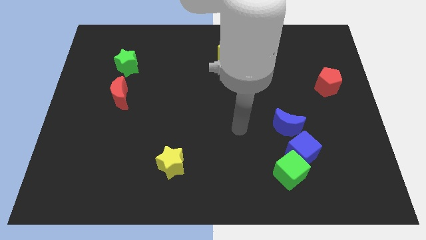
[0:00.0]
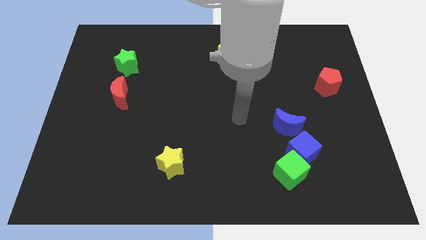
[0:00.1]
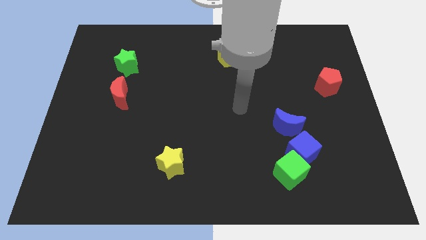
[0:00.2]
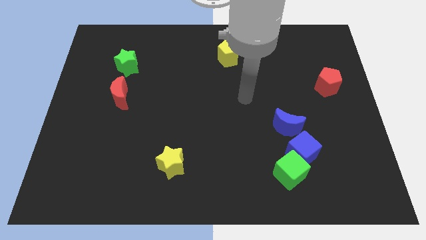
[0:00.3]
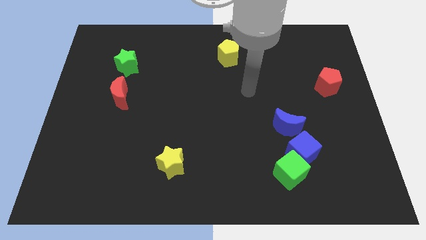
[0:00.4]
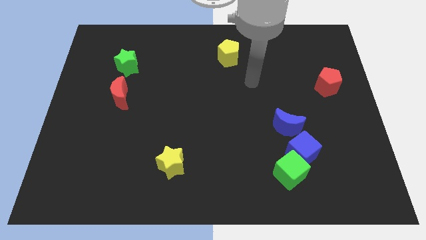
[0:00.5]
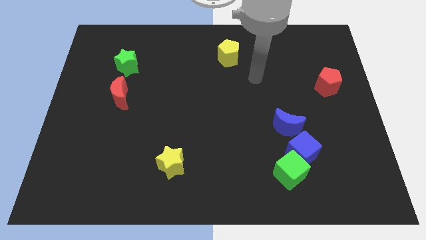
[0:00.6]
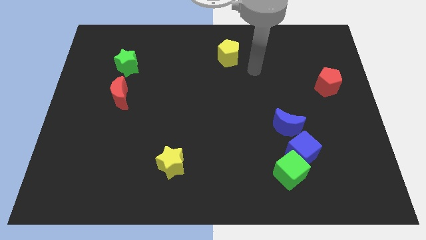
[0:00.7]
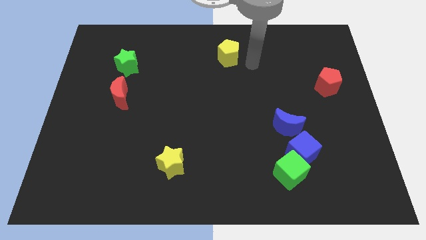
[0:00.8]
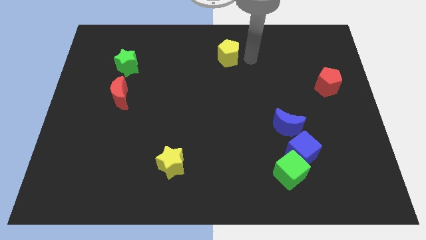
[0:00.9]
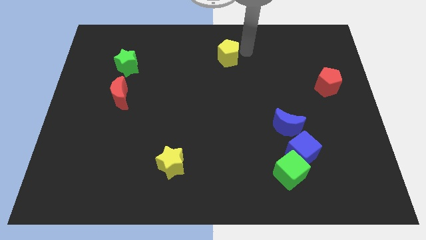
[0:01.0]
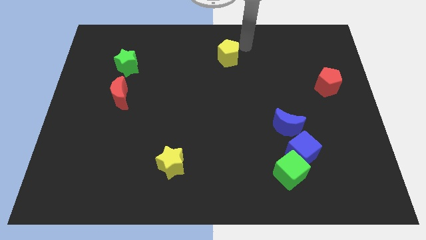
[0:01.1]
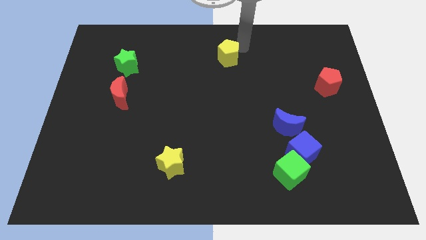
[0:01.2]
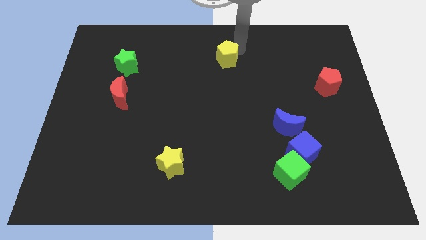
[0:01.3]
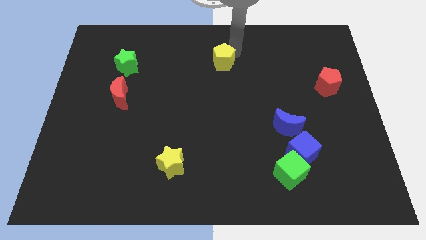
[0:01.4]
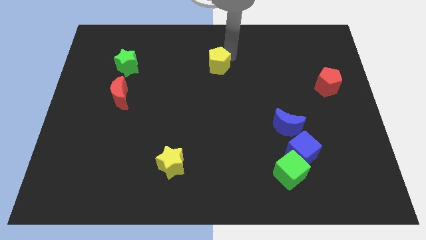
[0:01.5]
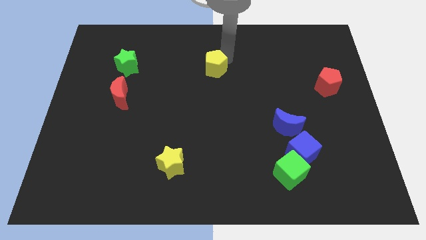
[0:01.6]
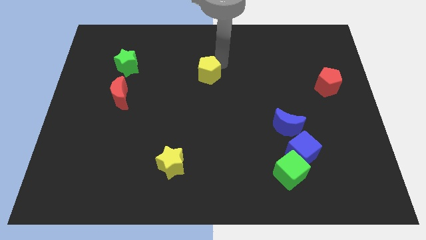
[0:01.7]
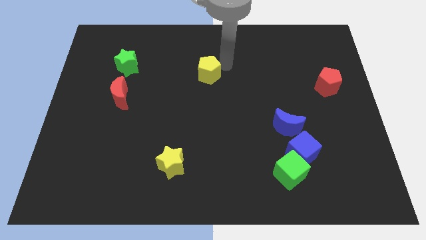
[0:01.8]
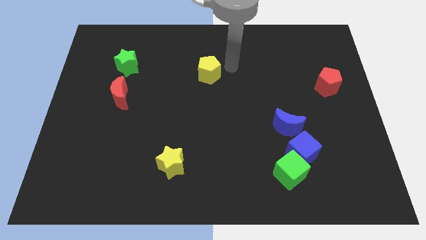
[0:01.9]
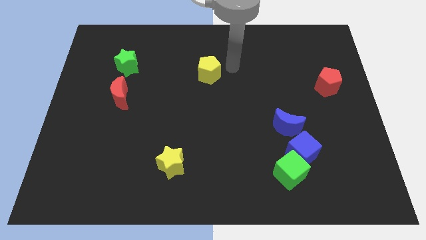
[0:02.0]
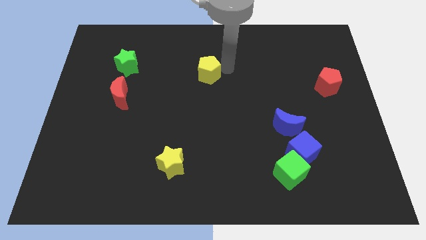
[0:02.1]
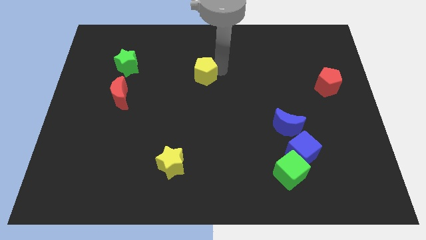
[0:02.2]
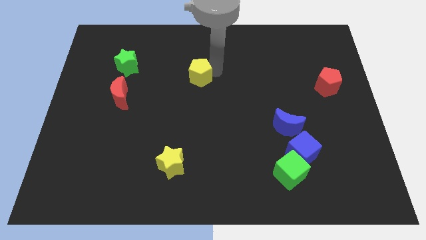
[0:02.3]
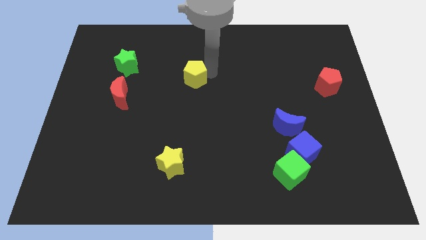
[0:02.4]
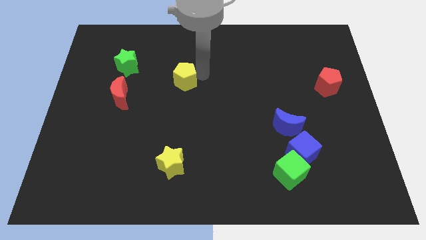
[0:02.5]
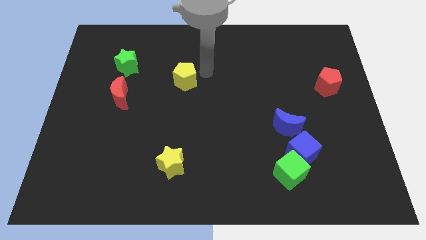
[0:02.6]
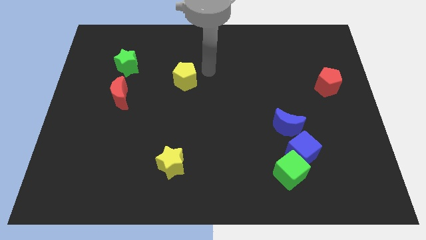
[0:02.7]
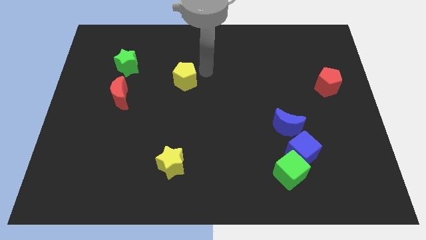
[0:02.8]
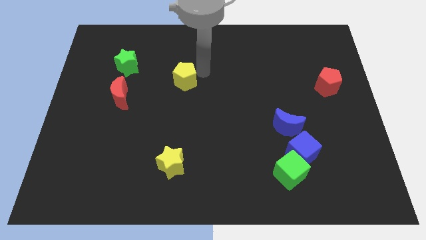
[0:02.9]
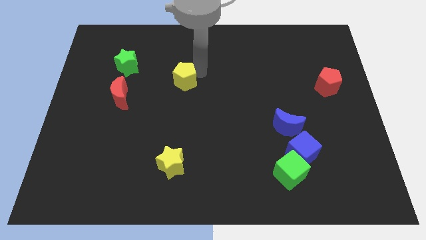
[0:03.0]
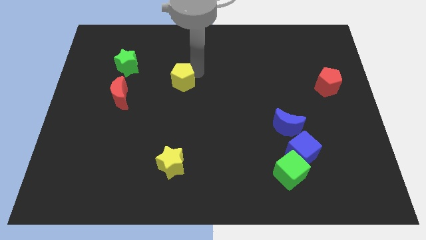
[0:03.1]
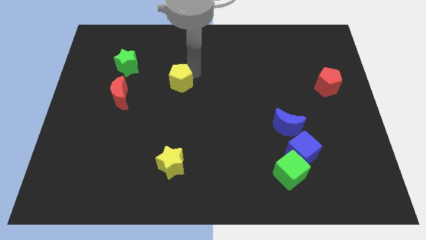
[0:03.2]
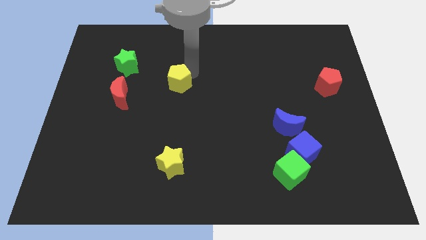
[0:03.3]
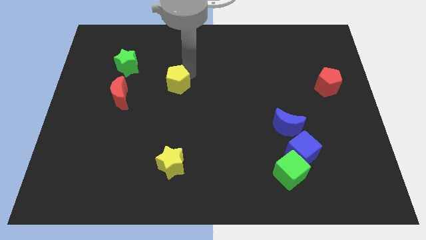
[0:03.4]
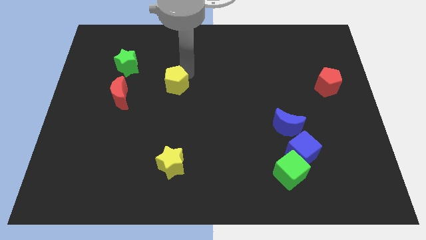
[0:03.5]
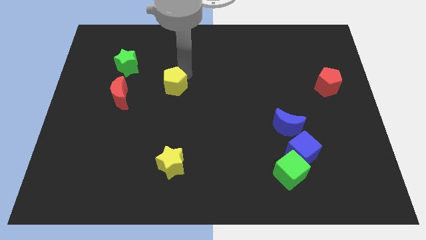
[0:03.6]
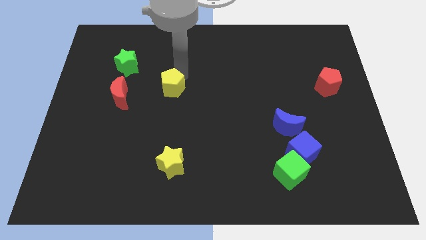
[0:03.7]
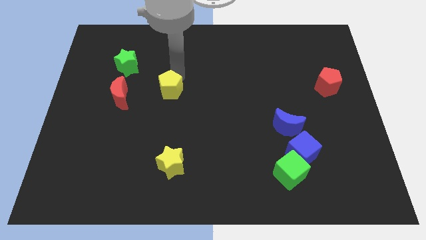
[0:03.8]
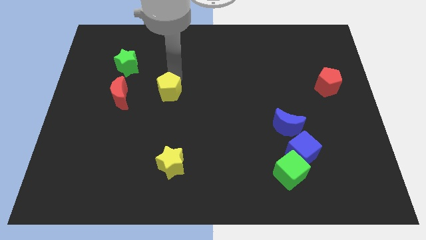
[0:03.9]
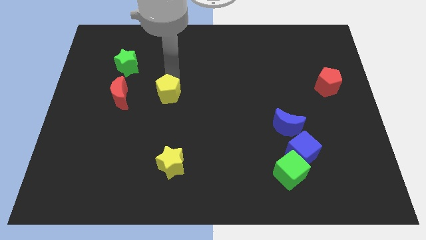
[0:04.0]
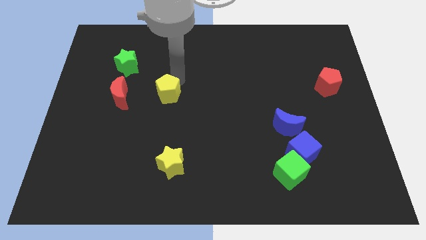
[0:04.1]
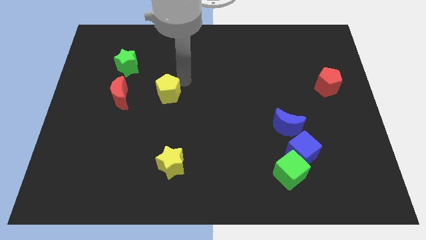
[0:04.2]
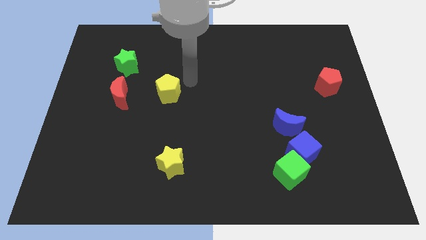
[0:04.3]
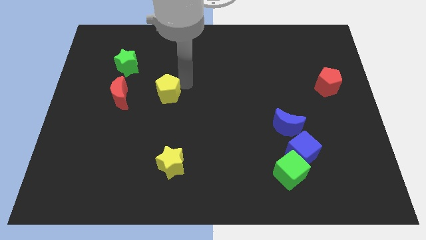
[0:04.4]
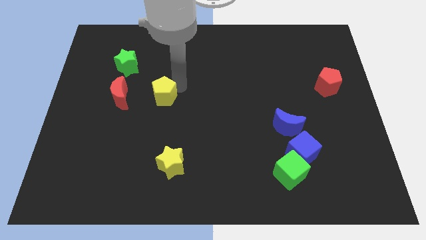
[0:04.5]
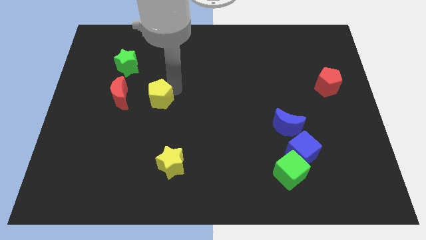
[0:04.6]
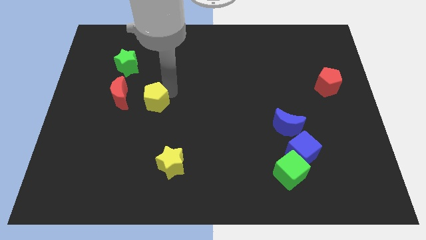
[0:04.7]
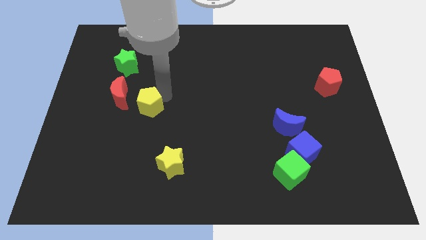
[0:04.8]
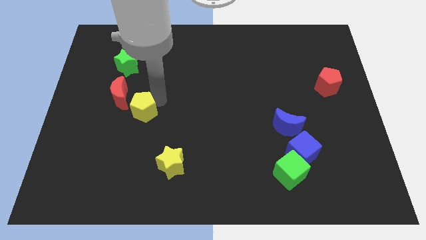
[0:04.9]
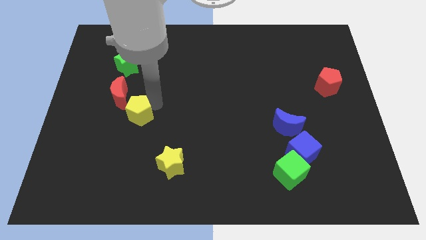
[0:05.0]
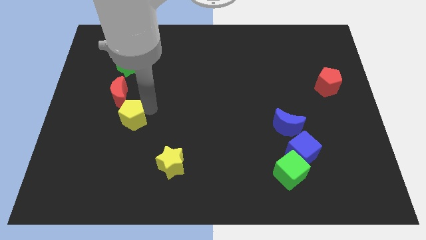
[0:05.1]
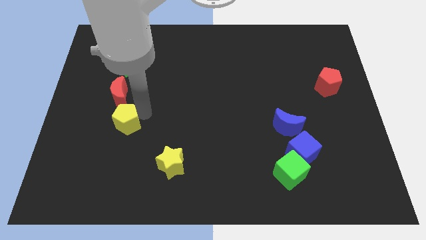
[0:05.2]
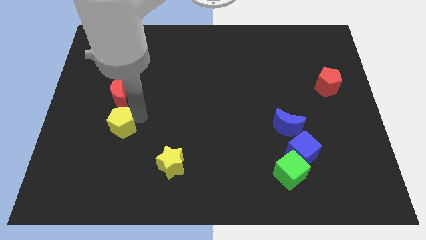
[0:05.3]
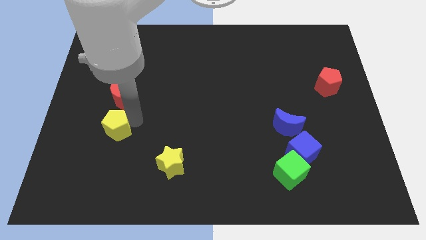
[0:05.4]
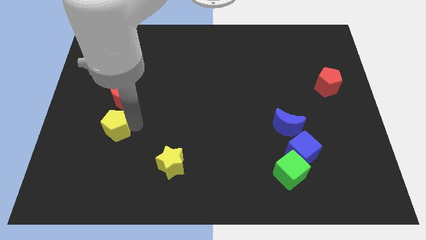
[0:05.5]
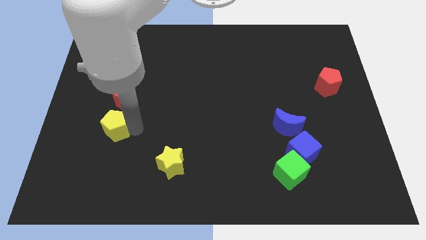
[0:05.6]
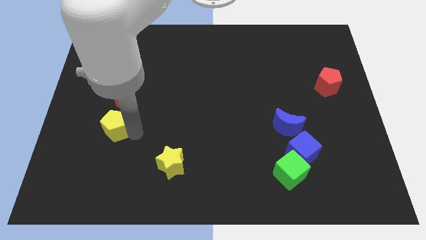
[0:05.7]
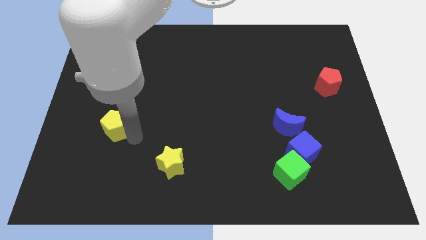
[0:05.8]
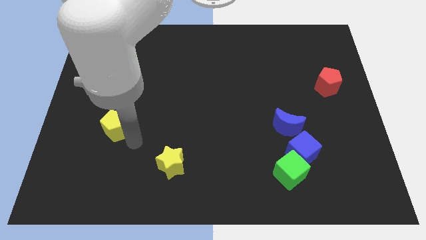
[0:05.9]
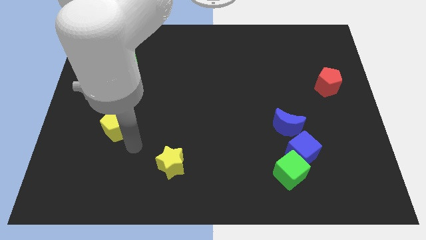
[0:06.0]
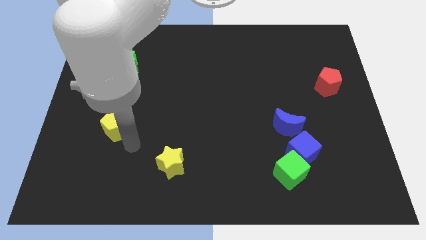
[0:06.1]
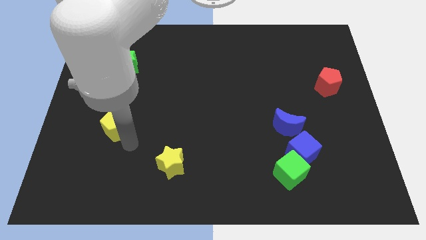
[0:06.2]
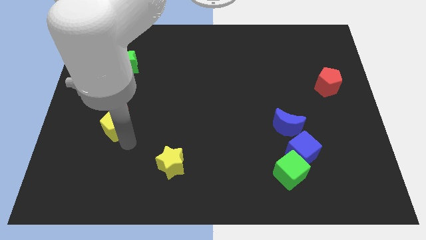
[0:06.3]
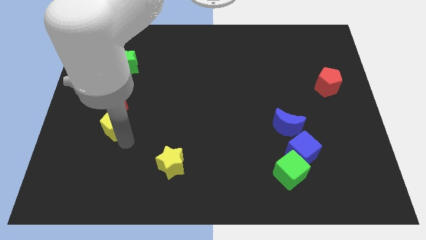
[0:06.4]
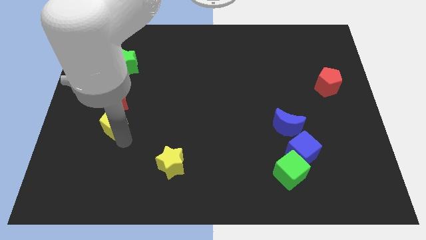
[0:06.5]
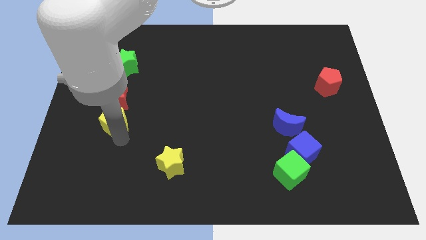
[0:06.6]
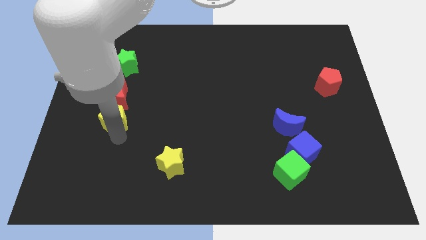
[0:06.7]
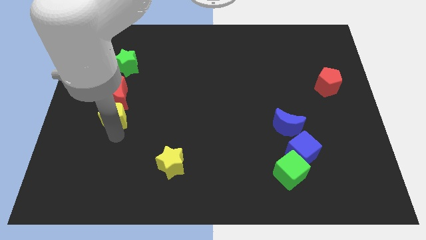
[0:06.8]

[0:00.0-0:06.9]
push the yellow pentagon to the bottom left of the red moon
